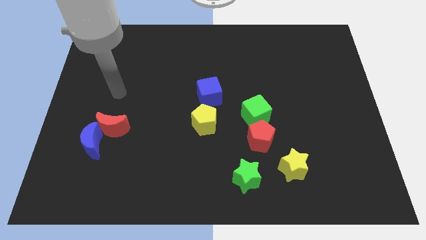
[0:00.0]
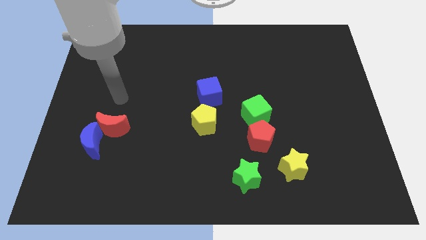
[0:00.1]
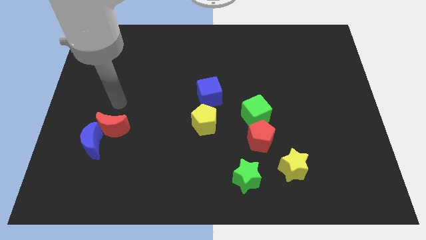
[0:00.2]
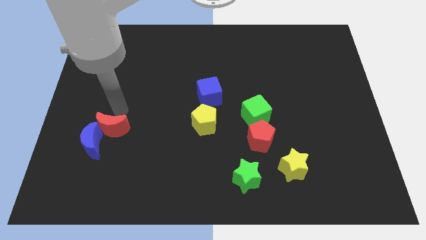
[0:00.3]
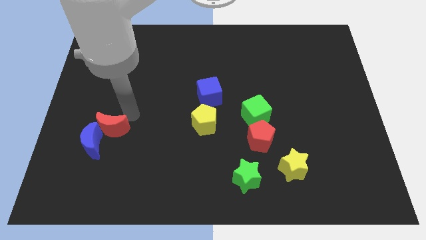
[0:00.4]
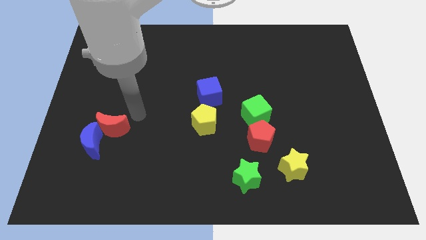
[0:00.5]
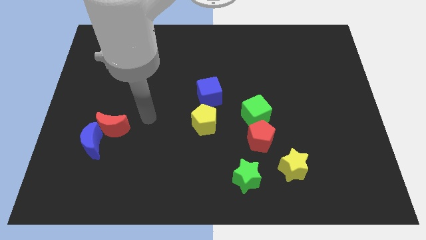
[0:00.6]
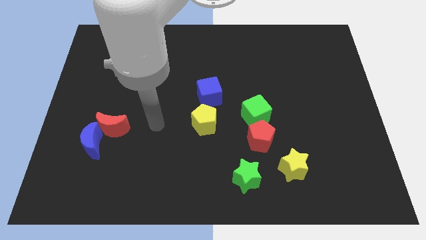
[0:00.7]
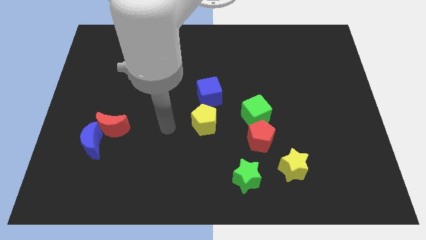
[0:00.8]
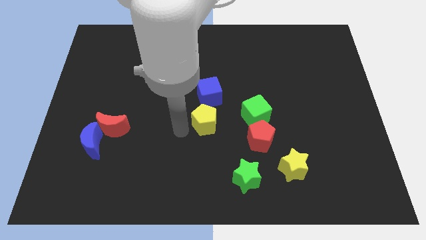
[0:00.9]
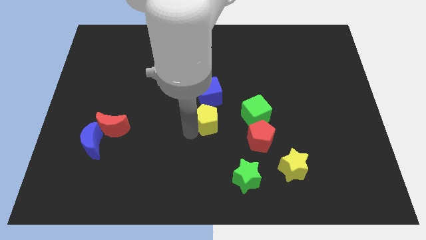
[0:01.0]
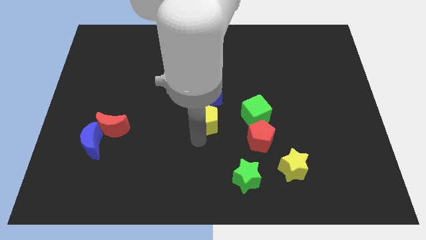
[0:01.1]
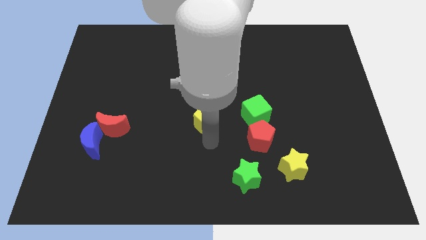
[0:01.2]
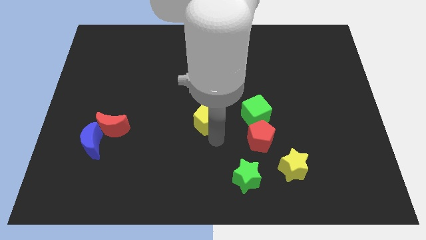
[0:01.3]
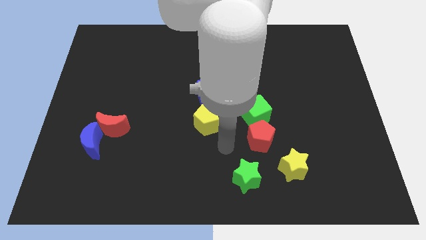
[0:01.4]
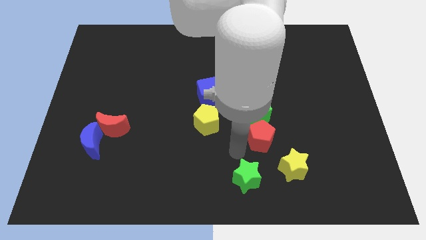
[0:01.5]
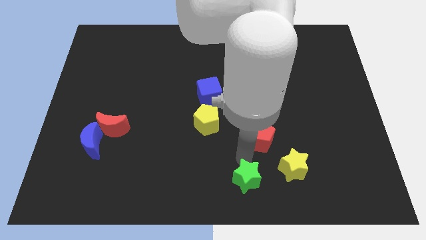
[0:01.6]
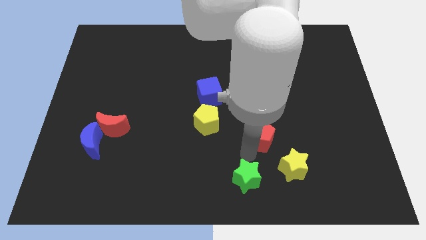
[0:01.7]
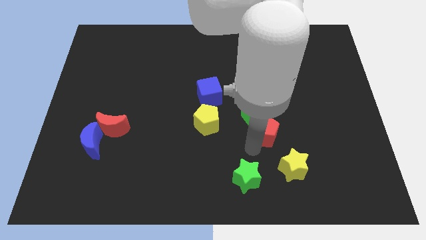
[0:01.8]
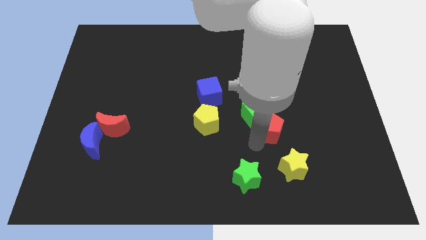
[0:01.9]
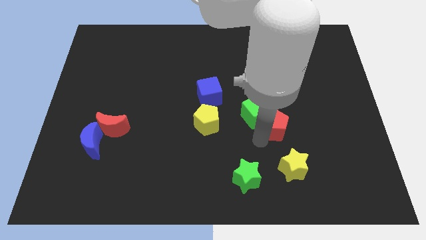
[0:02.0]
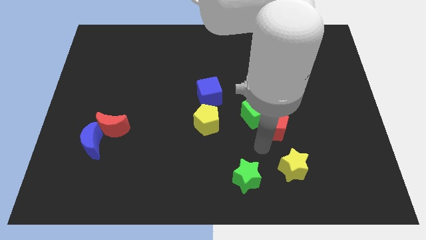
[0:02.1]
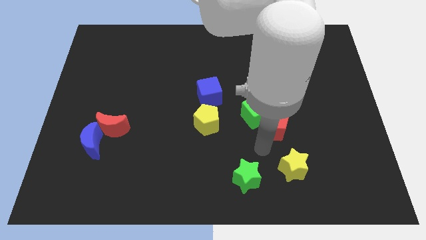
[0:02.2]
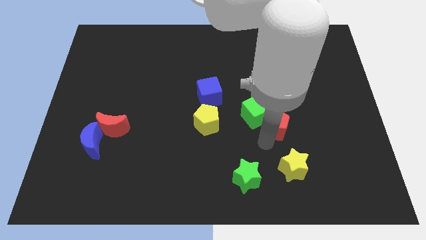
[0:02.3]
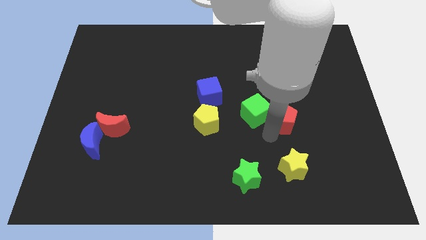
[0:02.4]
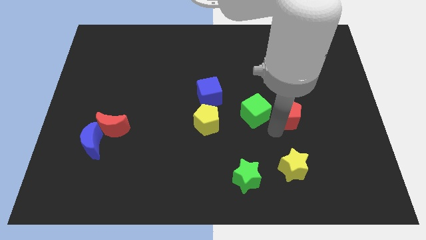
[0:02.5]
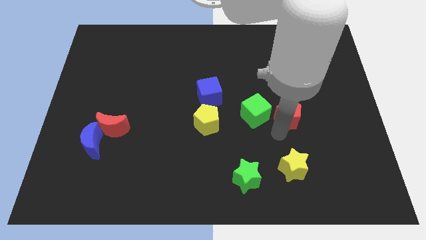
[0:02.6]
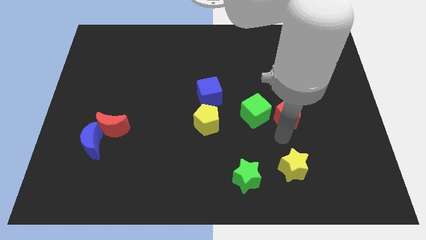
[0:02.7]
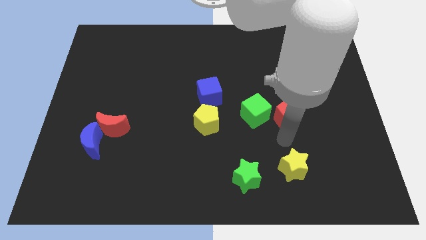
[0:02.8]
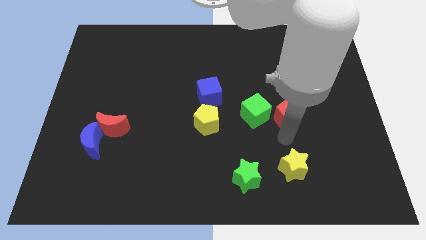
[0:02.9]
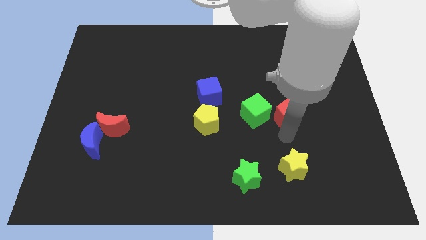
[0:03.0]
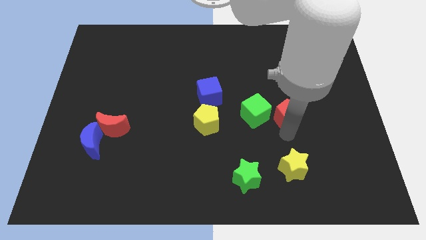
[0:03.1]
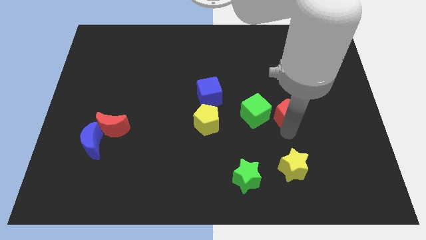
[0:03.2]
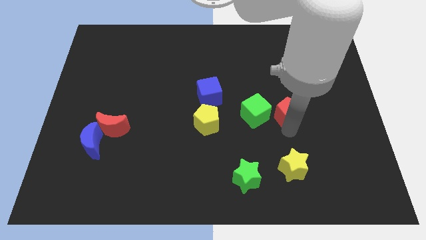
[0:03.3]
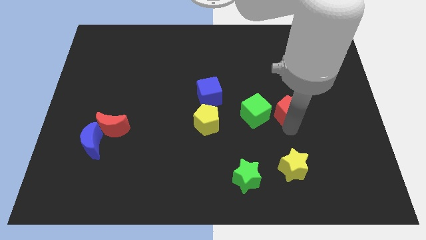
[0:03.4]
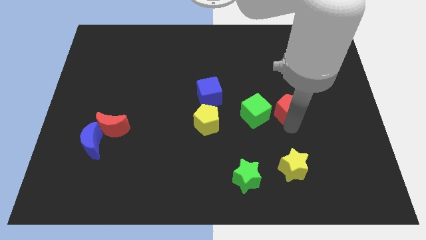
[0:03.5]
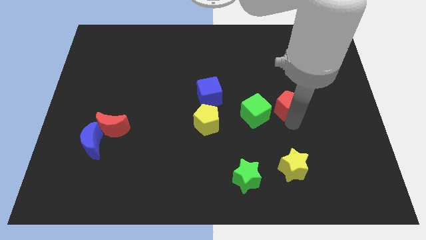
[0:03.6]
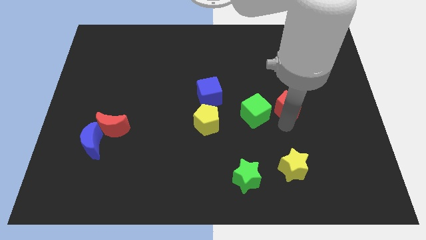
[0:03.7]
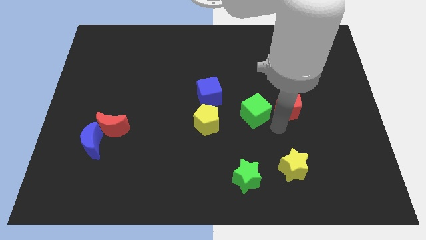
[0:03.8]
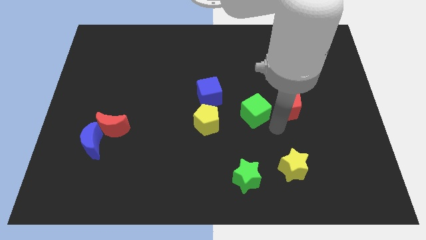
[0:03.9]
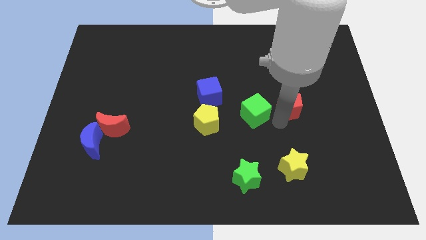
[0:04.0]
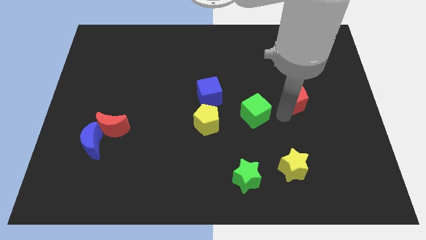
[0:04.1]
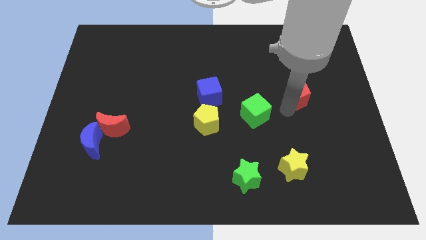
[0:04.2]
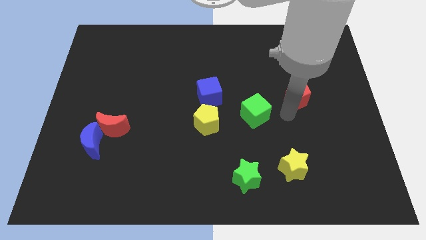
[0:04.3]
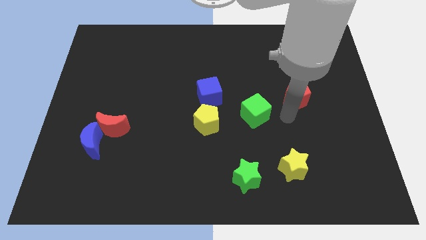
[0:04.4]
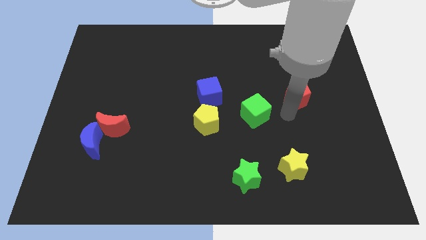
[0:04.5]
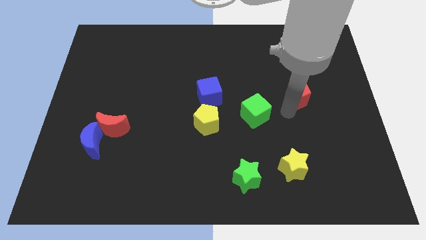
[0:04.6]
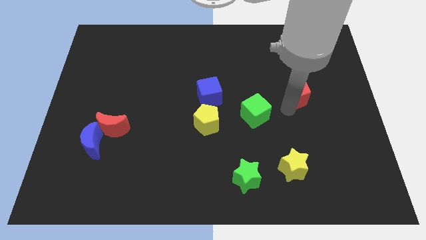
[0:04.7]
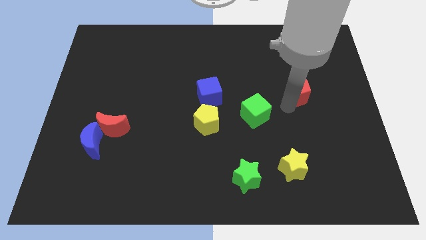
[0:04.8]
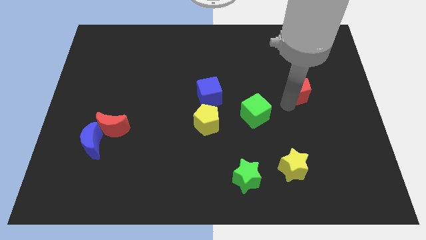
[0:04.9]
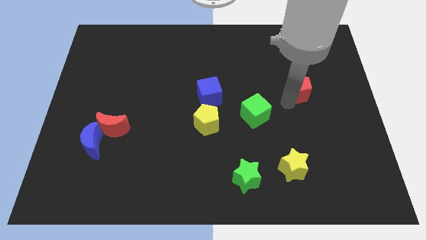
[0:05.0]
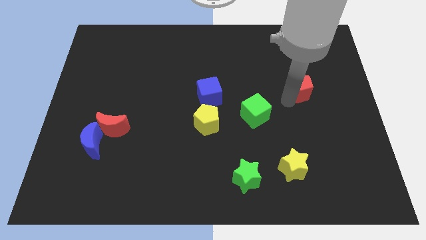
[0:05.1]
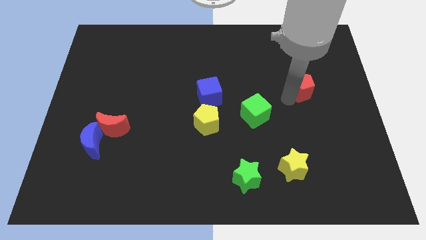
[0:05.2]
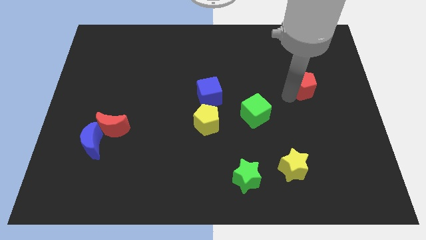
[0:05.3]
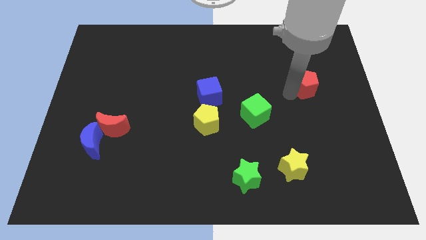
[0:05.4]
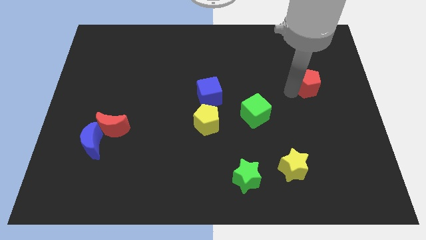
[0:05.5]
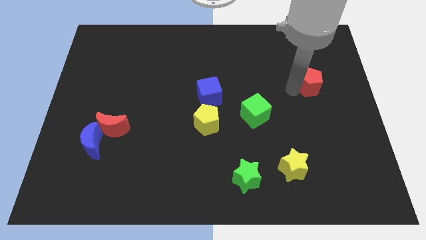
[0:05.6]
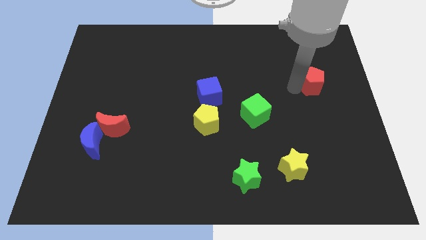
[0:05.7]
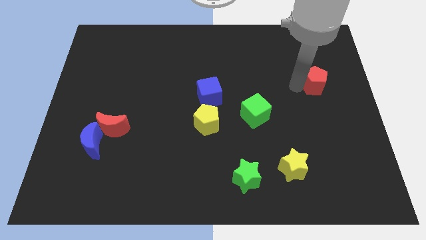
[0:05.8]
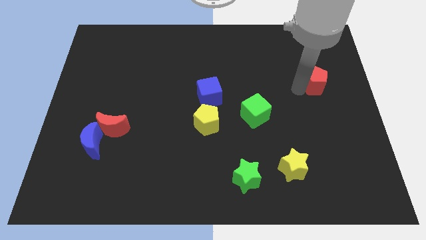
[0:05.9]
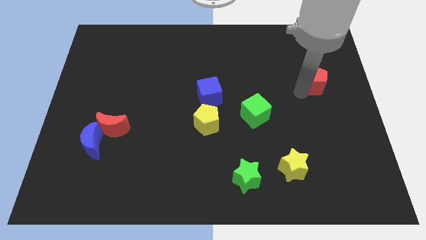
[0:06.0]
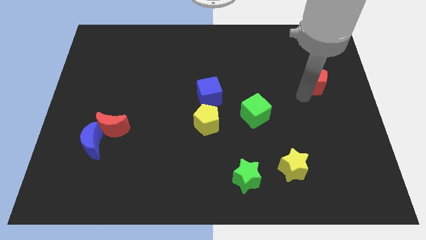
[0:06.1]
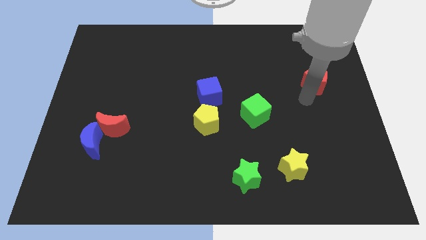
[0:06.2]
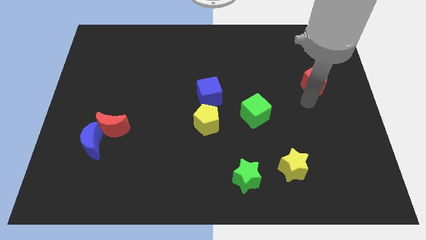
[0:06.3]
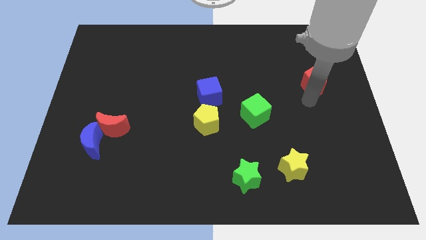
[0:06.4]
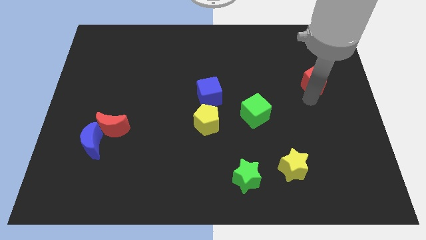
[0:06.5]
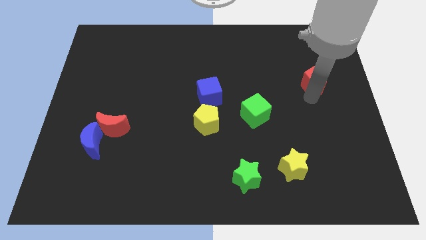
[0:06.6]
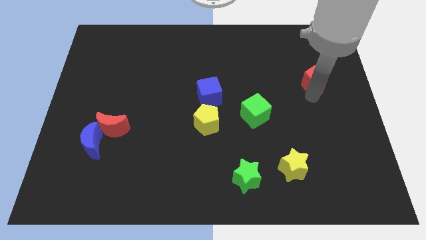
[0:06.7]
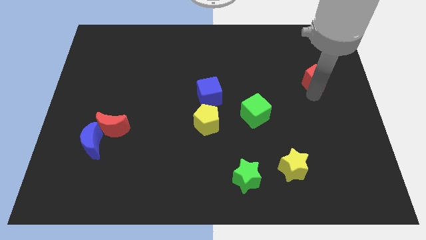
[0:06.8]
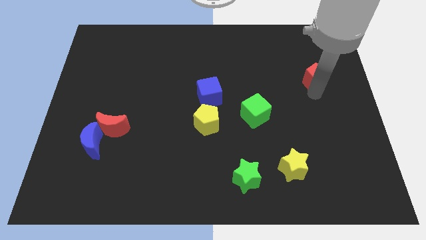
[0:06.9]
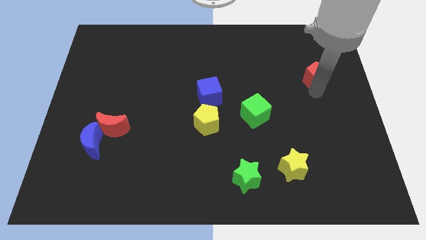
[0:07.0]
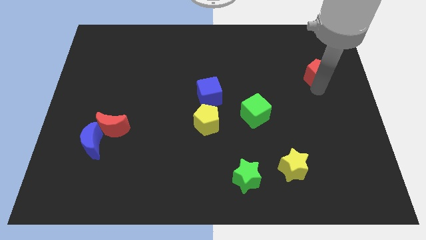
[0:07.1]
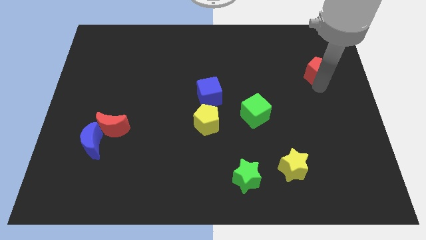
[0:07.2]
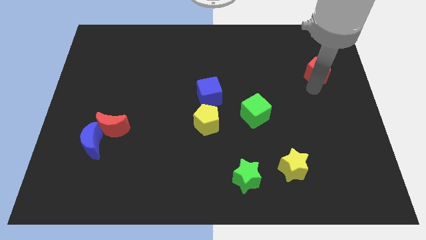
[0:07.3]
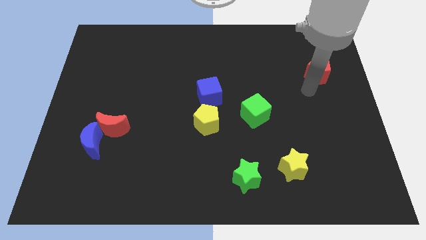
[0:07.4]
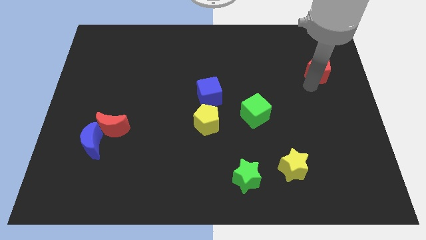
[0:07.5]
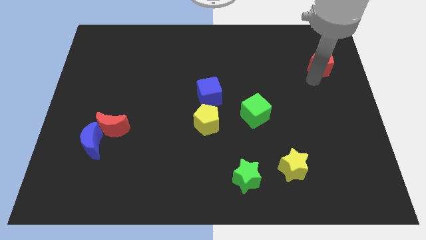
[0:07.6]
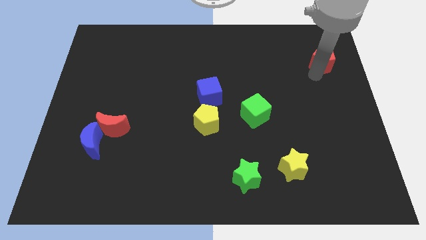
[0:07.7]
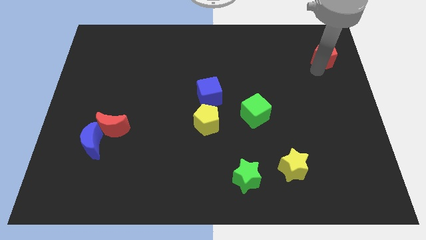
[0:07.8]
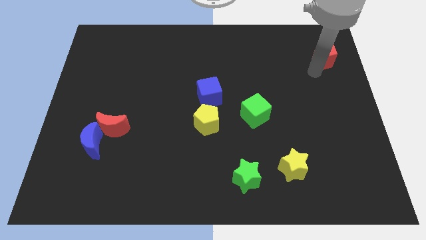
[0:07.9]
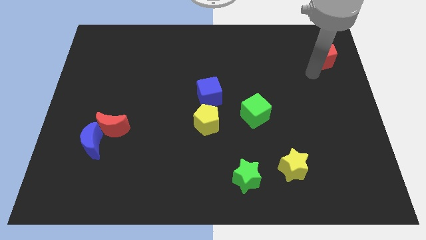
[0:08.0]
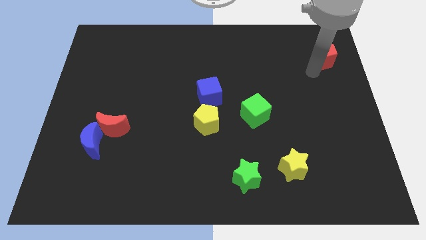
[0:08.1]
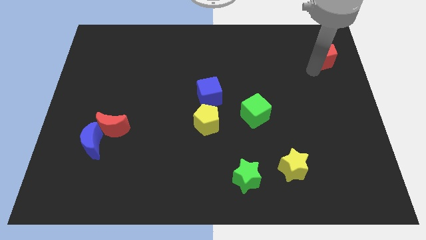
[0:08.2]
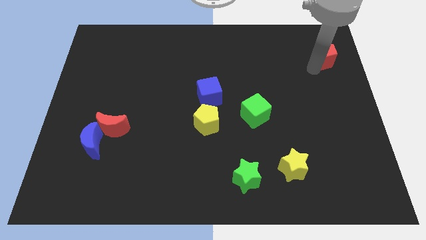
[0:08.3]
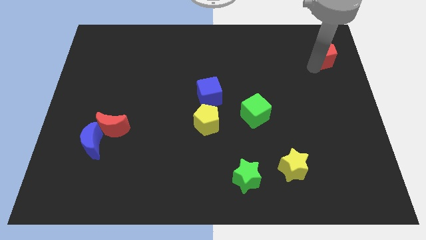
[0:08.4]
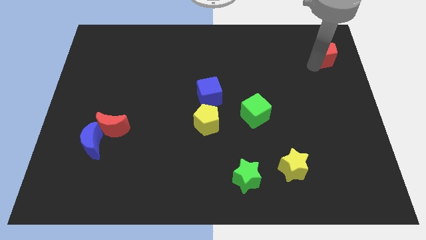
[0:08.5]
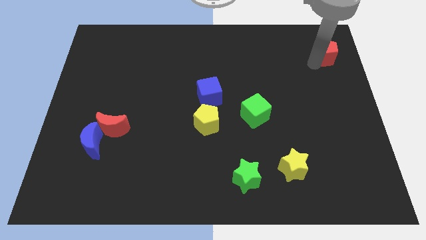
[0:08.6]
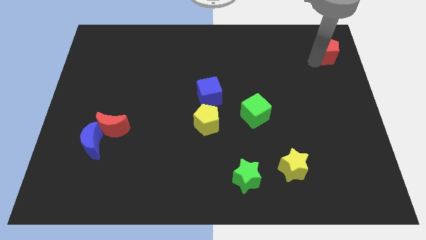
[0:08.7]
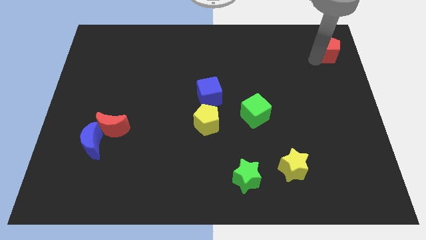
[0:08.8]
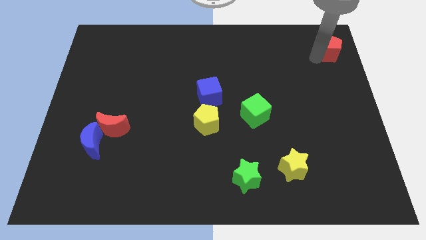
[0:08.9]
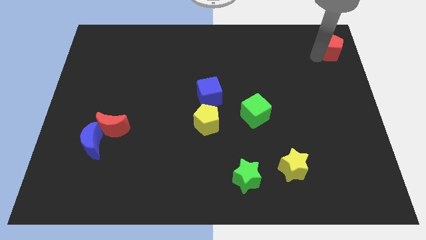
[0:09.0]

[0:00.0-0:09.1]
slide the red pentagon to the top right
